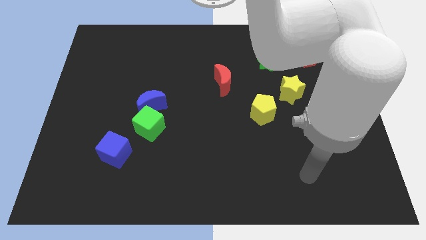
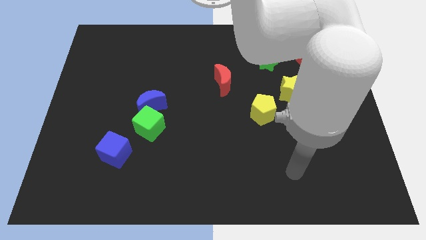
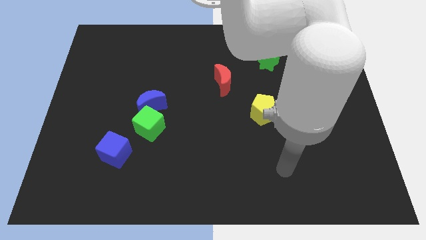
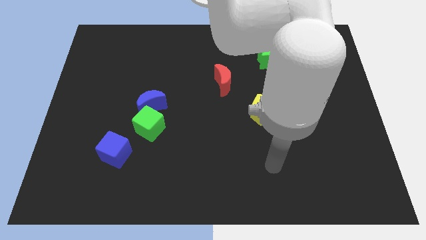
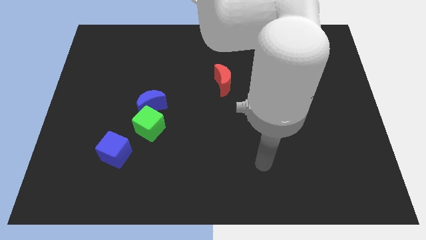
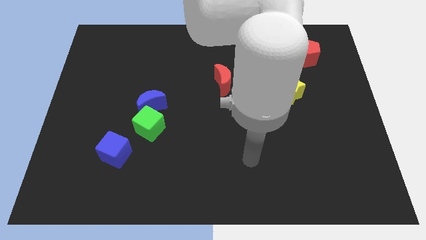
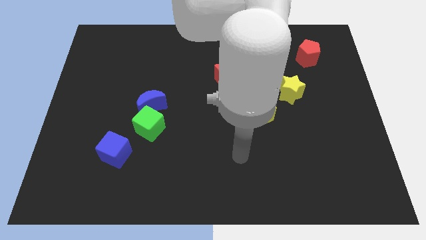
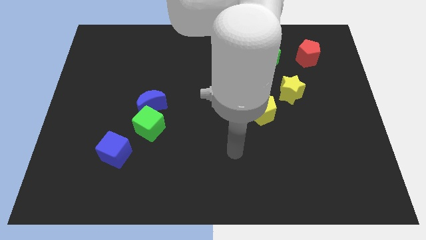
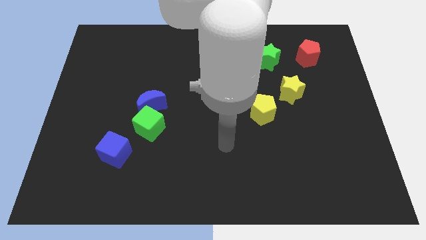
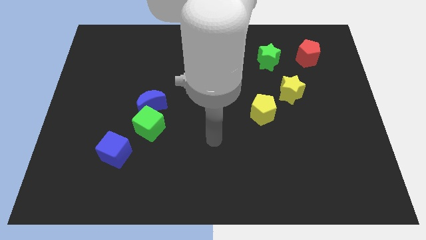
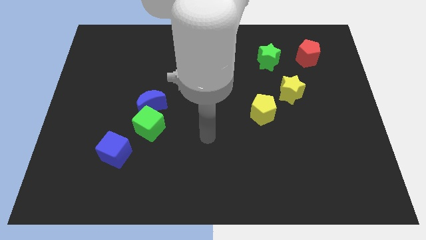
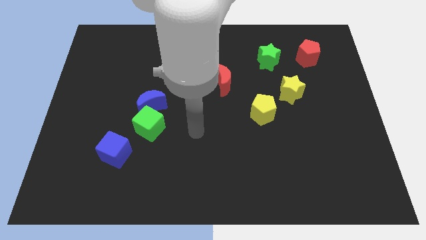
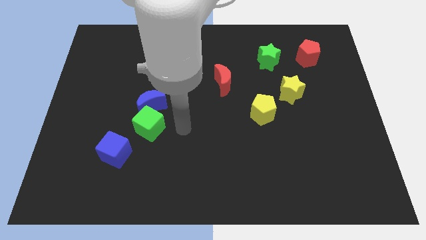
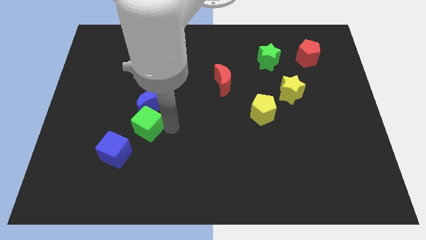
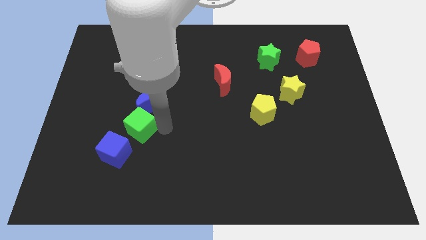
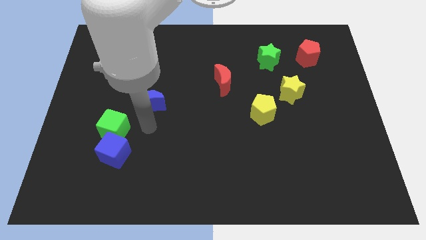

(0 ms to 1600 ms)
move the blue moon away from the green cube

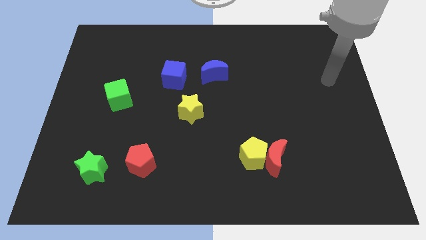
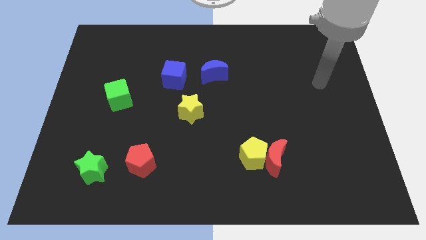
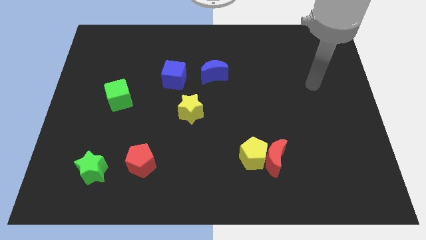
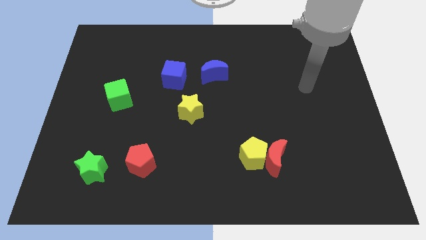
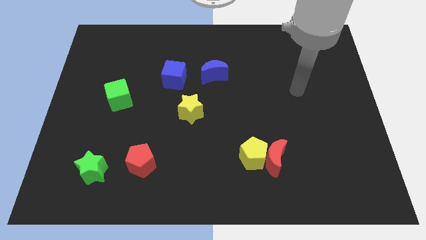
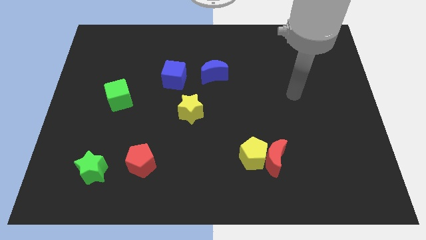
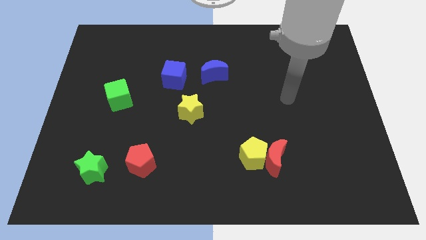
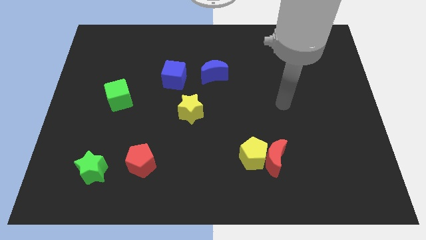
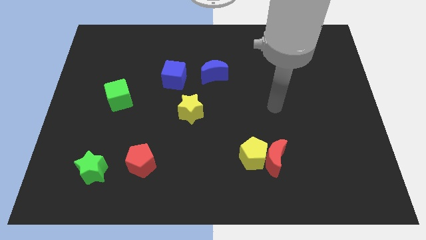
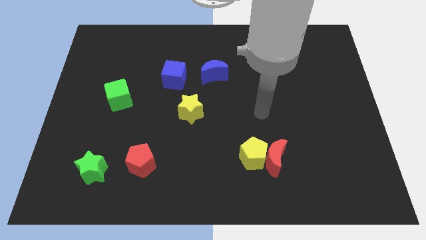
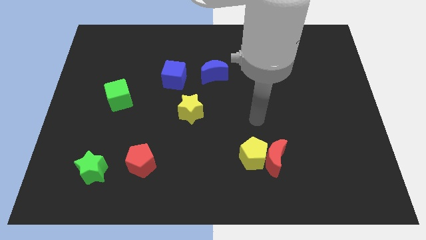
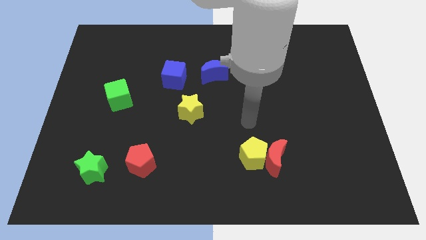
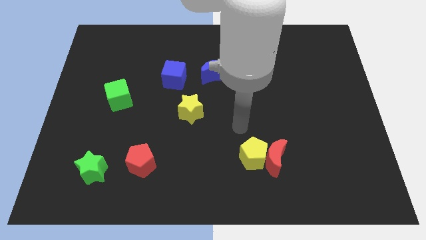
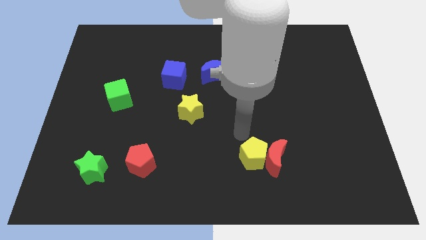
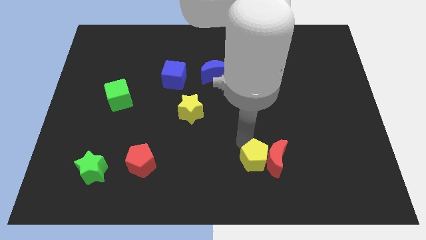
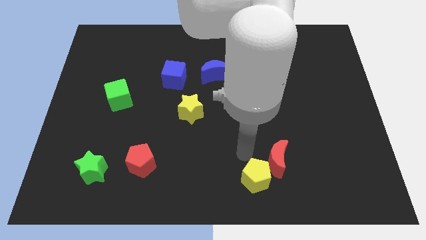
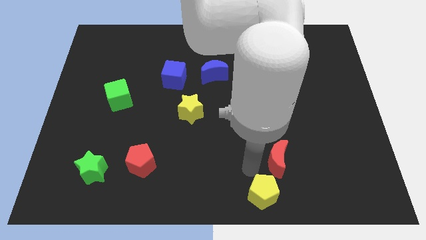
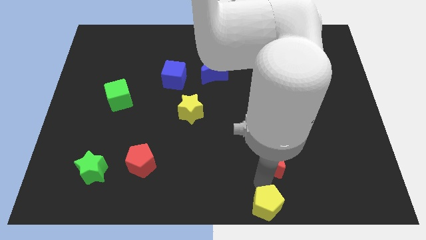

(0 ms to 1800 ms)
pull the red moon apart from the yellow pentagon

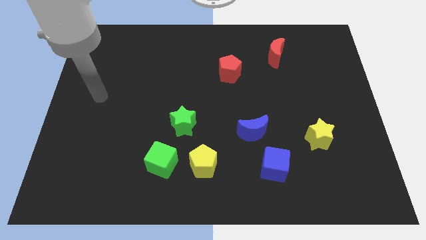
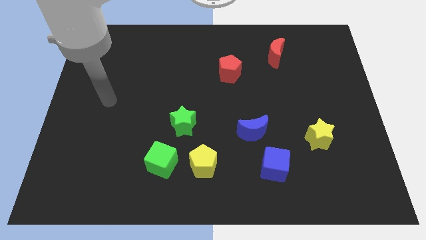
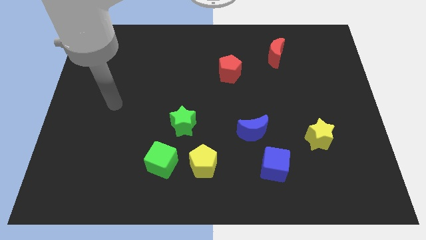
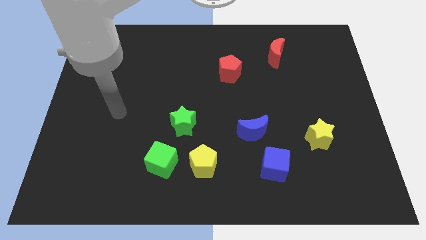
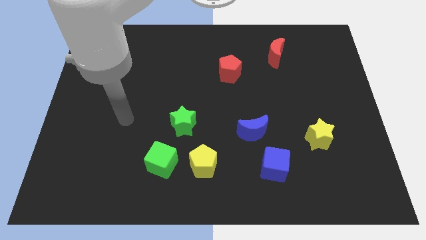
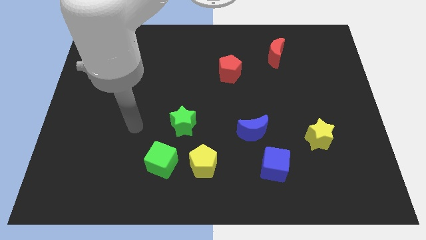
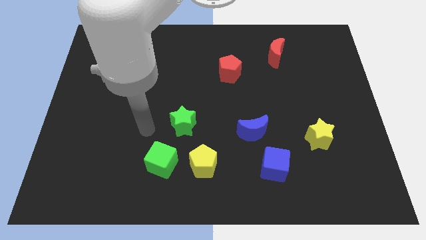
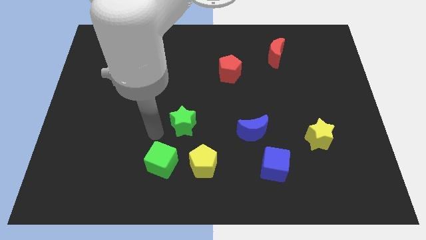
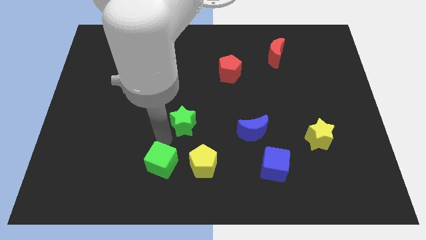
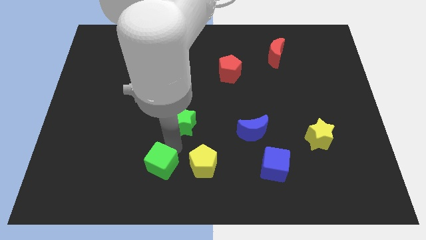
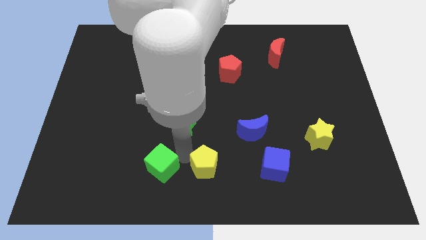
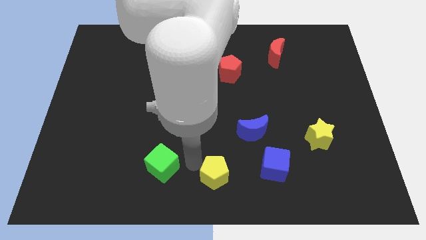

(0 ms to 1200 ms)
separate the green cube from the yellow pentagon

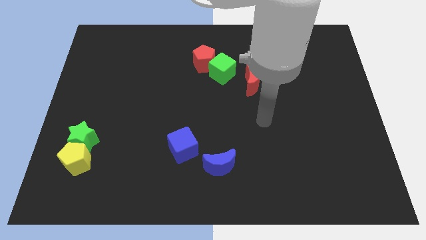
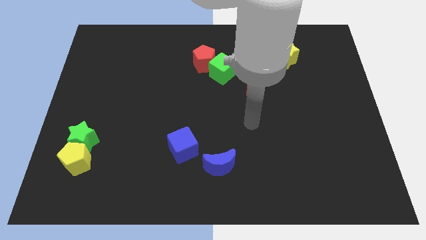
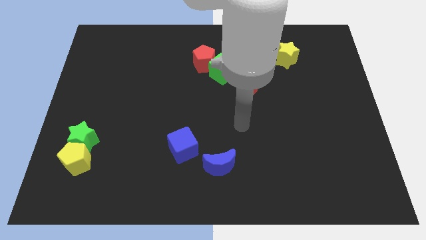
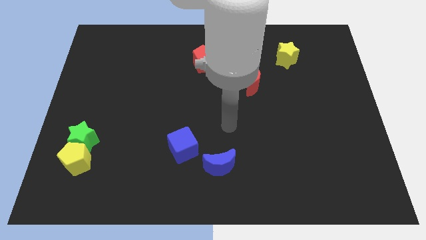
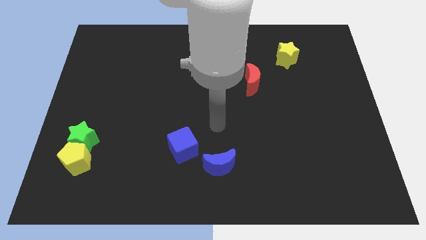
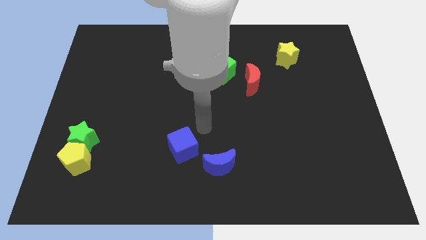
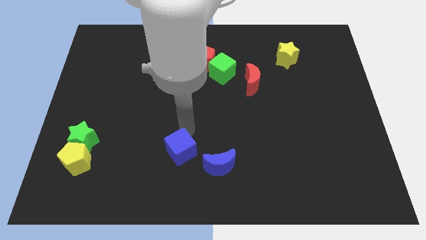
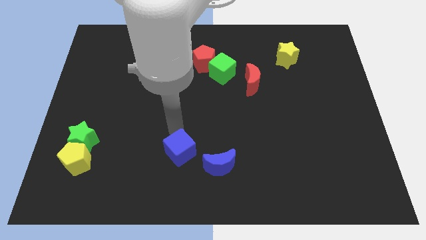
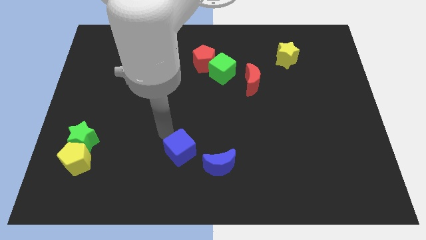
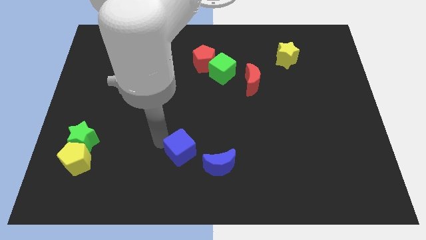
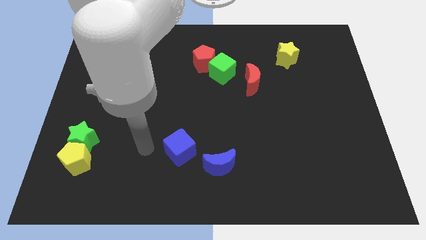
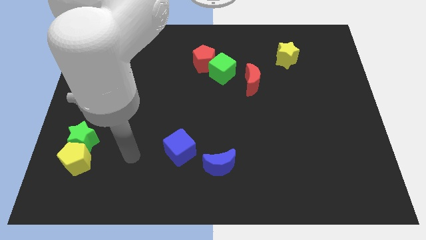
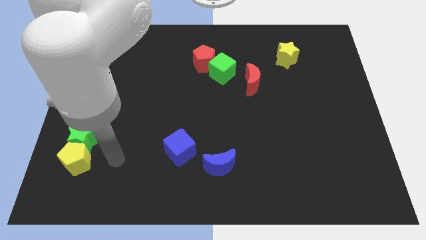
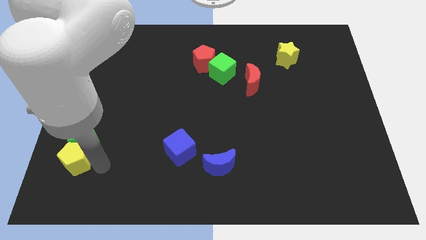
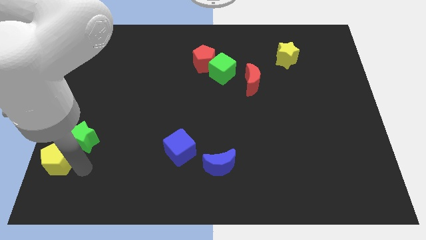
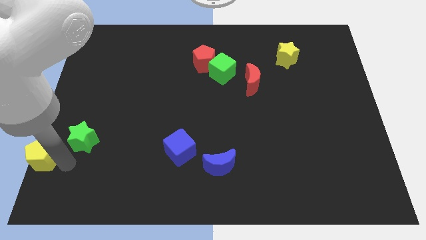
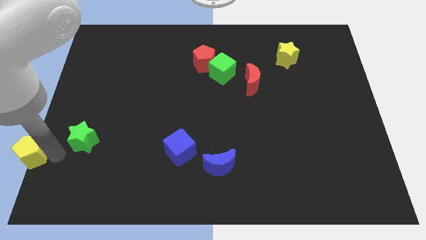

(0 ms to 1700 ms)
separate the green star from the yellow pentagon

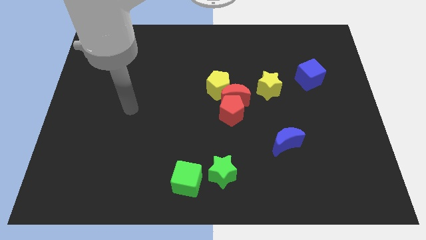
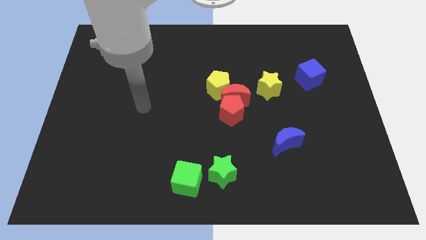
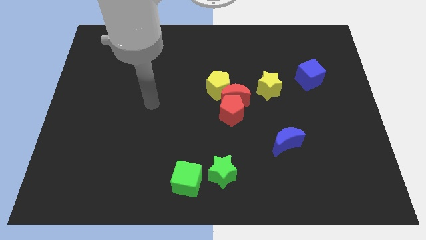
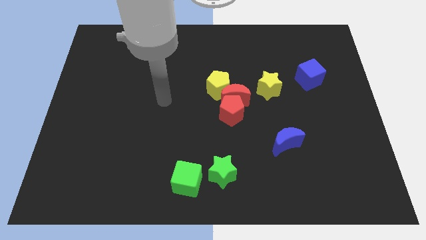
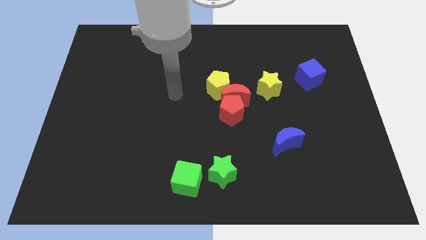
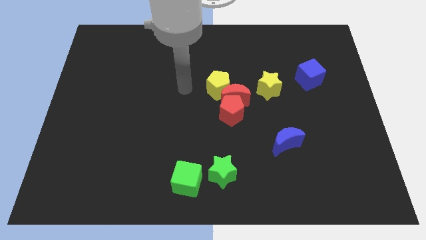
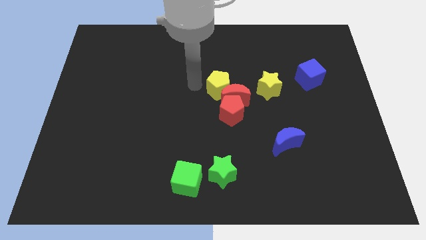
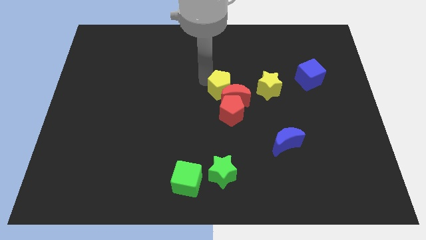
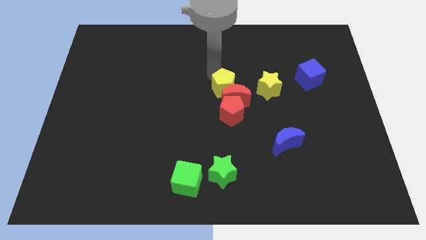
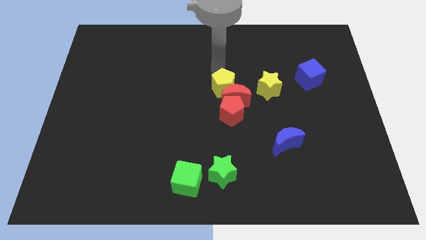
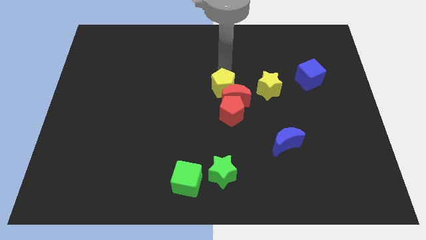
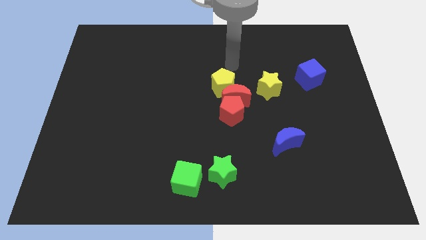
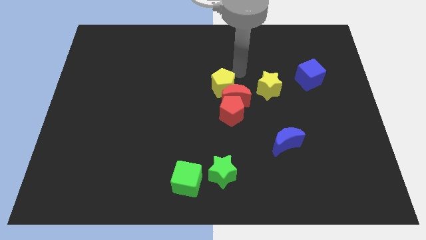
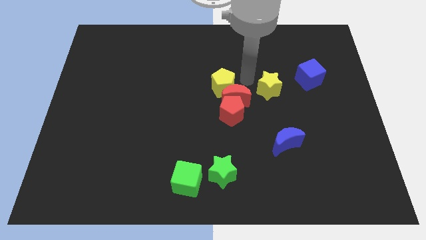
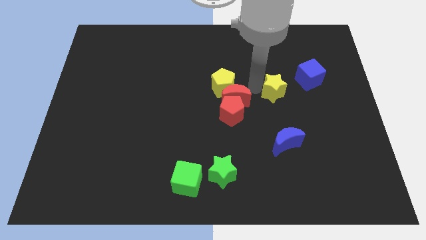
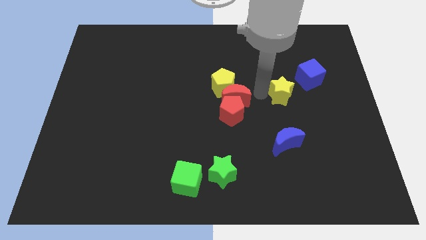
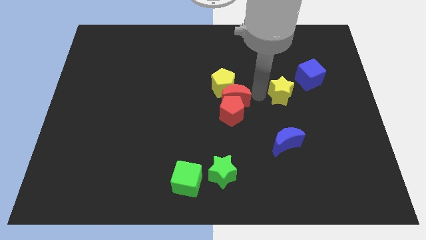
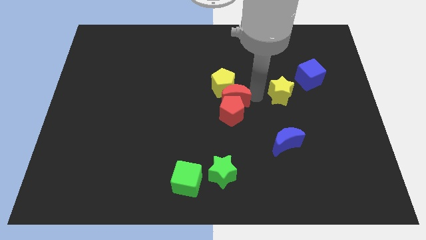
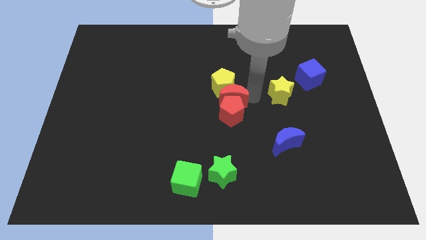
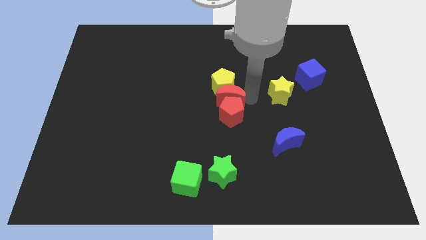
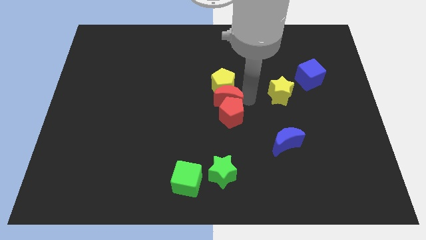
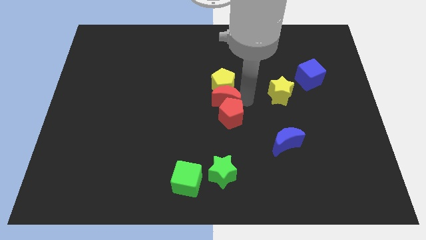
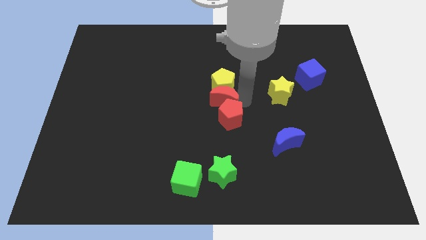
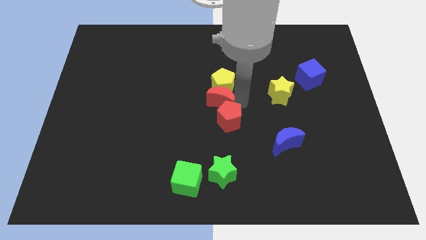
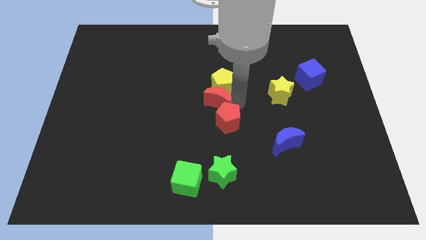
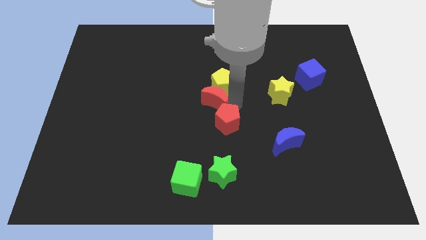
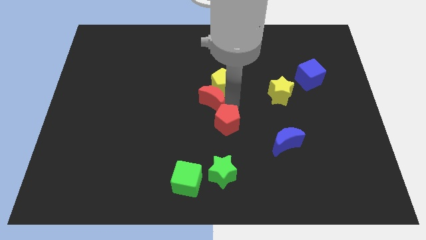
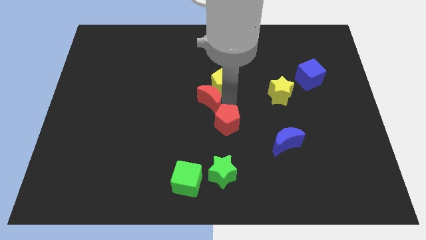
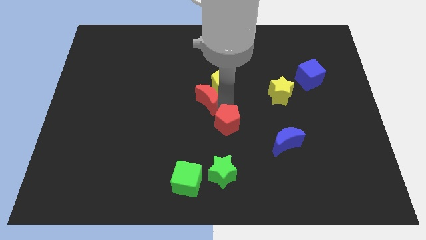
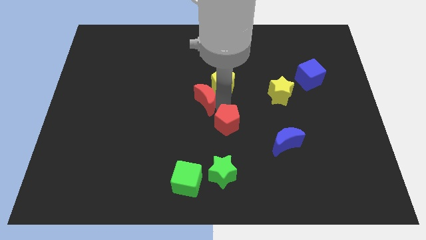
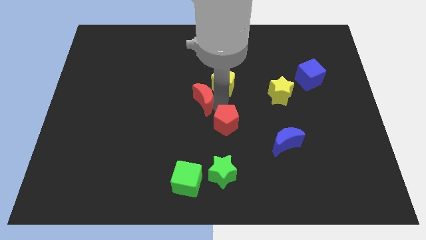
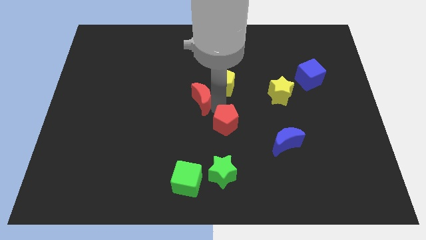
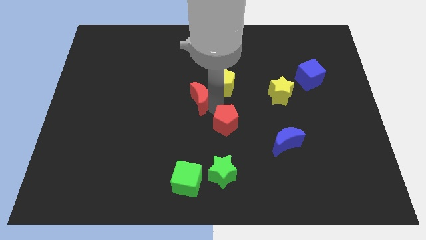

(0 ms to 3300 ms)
pull the red moon apart from the red pentagon, yellow pentagon, and yellow star
